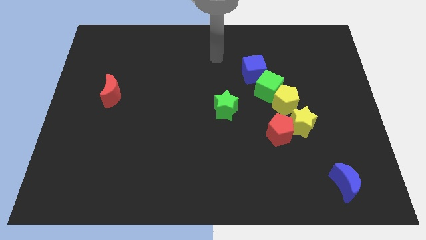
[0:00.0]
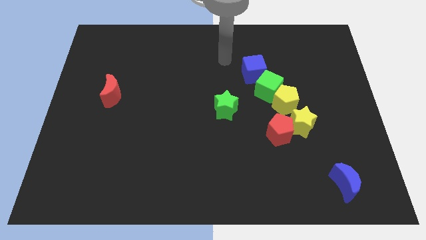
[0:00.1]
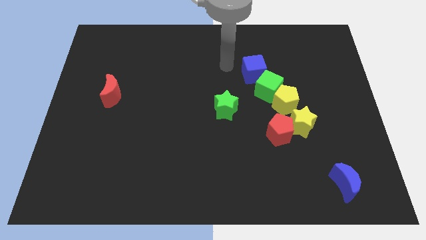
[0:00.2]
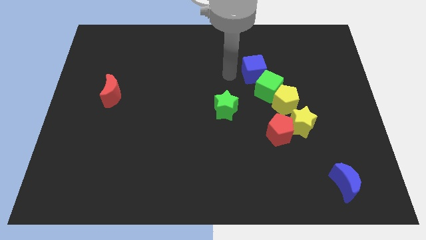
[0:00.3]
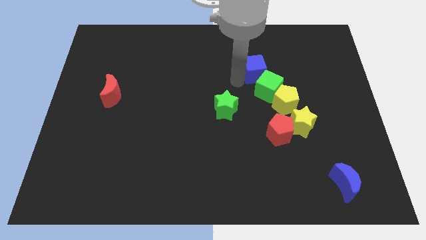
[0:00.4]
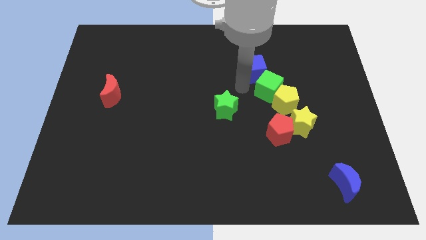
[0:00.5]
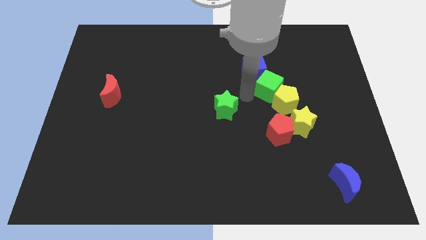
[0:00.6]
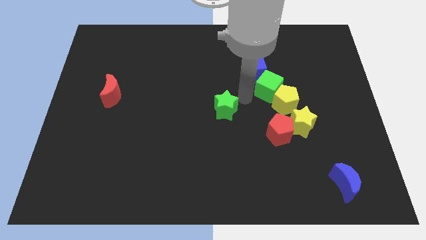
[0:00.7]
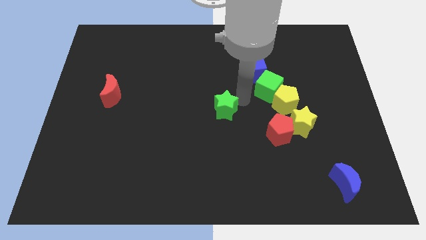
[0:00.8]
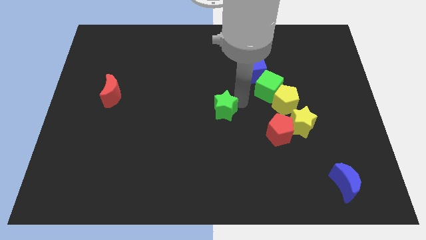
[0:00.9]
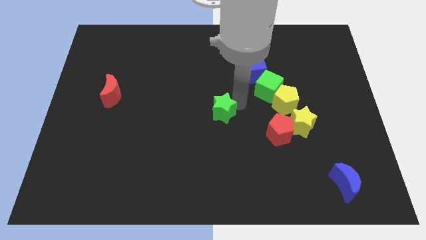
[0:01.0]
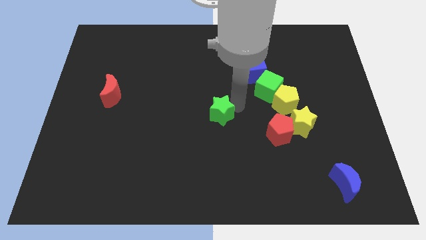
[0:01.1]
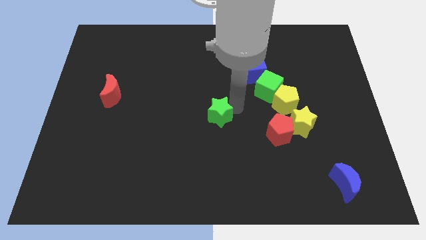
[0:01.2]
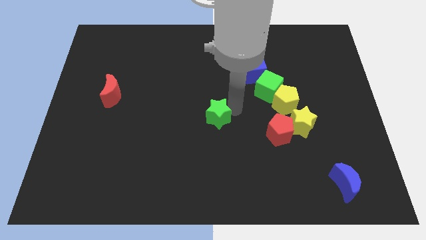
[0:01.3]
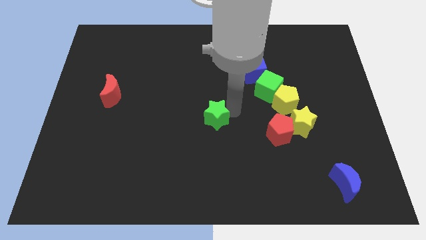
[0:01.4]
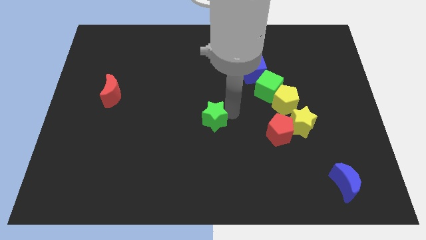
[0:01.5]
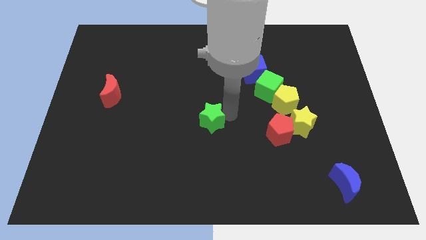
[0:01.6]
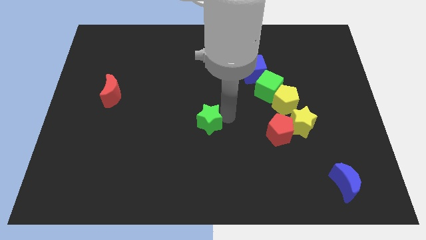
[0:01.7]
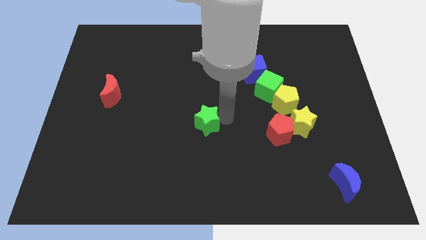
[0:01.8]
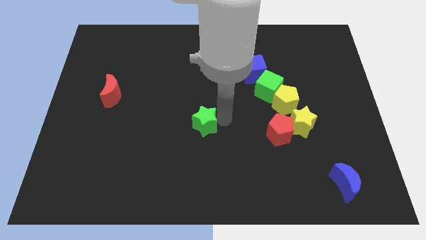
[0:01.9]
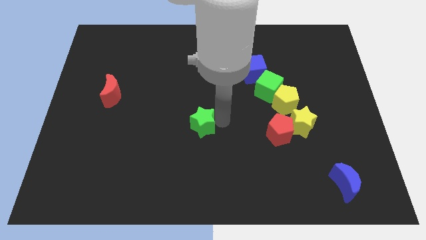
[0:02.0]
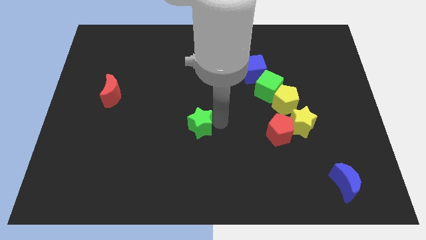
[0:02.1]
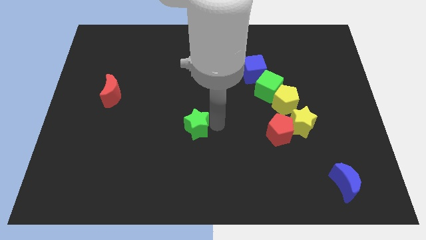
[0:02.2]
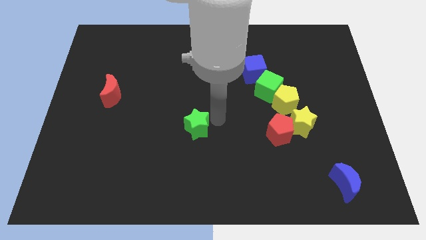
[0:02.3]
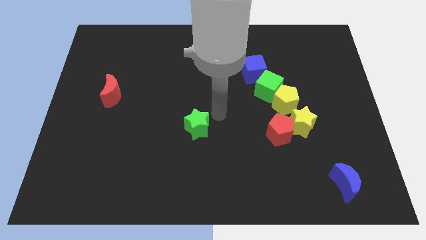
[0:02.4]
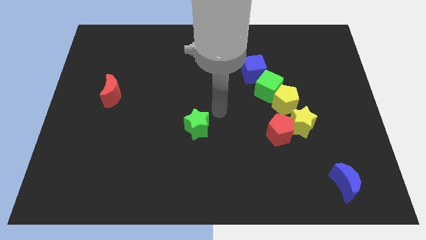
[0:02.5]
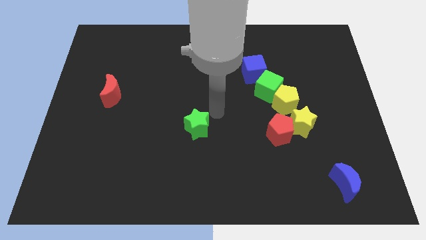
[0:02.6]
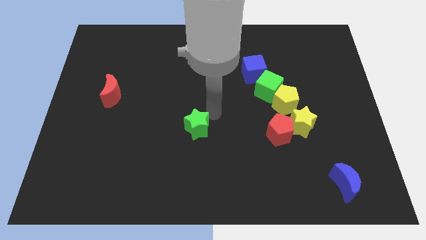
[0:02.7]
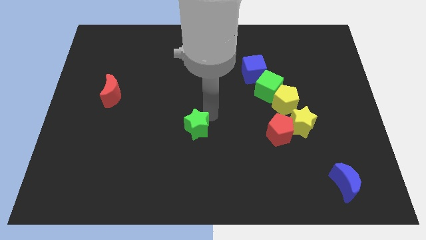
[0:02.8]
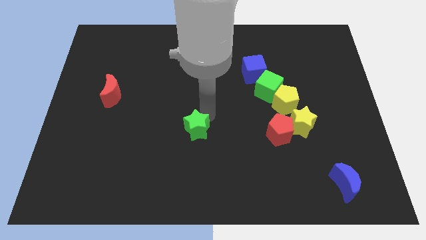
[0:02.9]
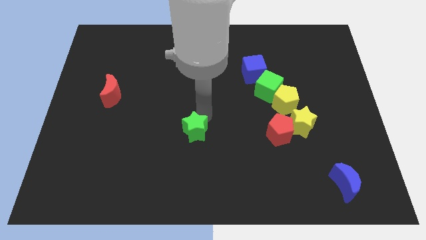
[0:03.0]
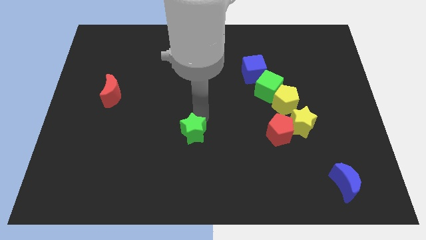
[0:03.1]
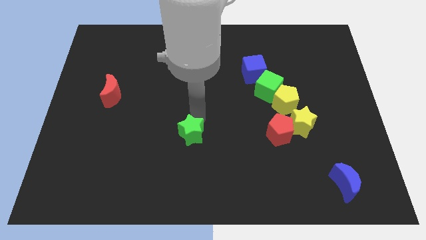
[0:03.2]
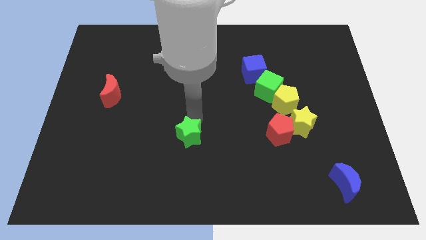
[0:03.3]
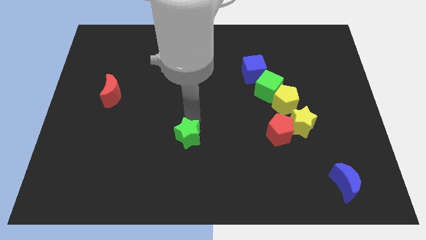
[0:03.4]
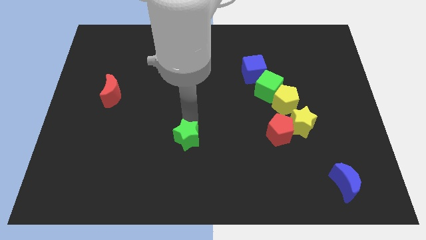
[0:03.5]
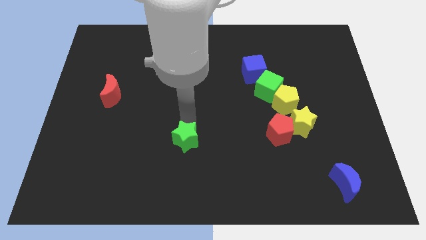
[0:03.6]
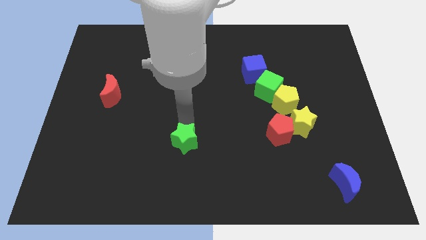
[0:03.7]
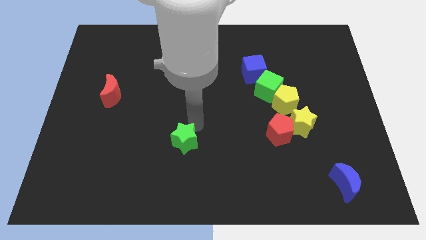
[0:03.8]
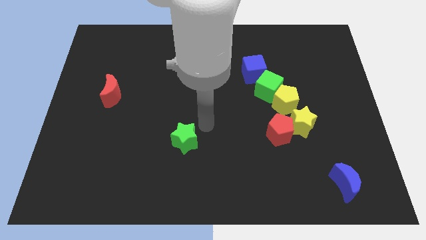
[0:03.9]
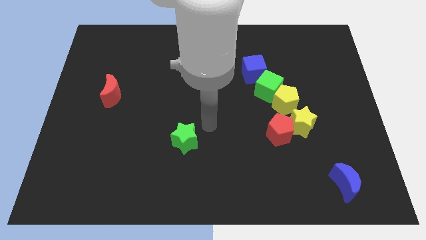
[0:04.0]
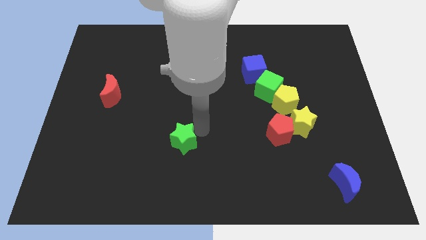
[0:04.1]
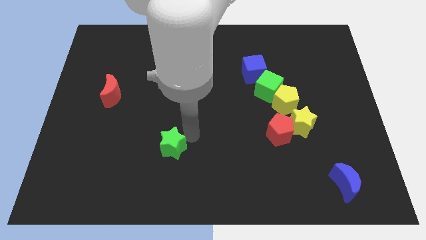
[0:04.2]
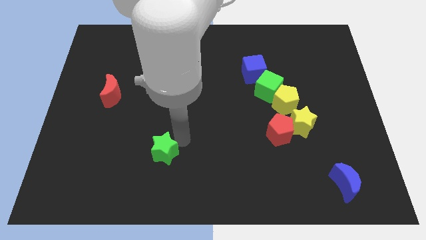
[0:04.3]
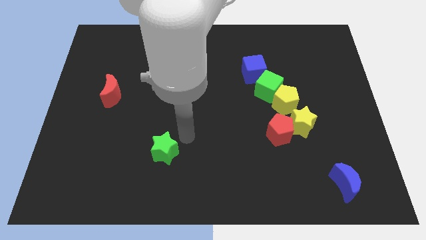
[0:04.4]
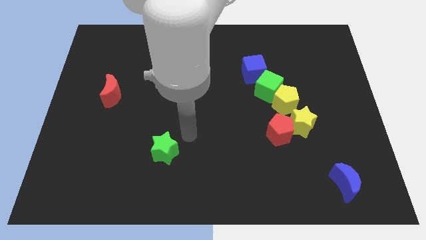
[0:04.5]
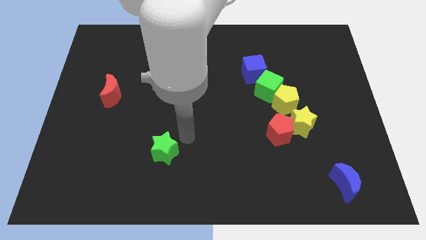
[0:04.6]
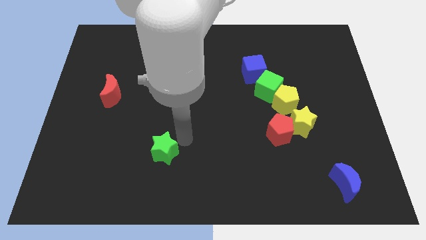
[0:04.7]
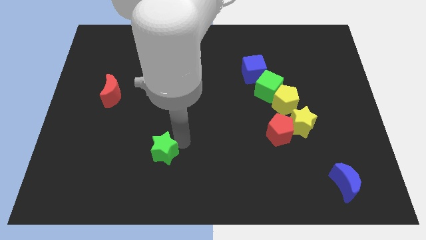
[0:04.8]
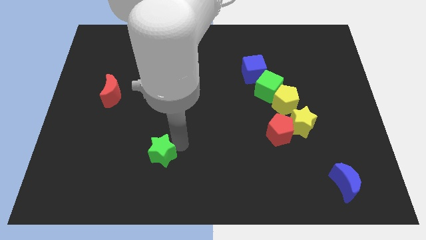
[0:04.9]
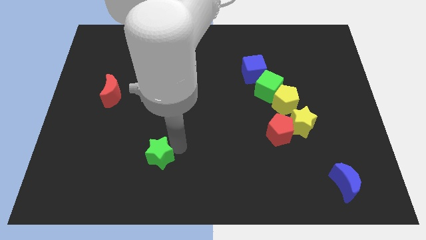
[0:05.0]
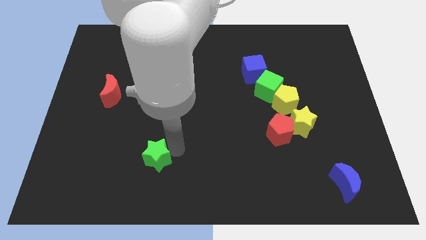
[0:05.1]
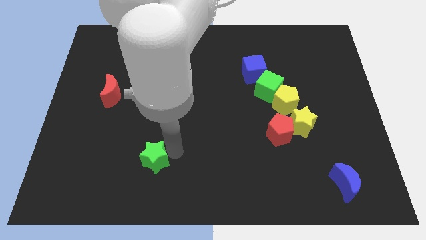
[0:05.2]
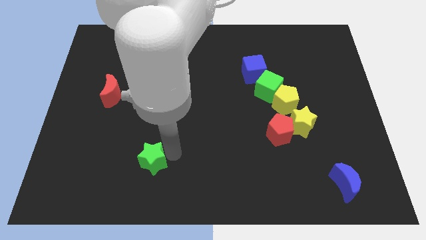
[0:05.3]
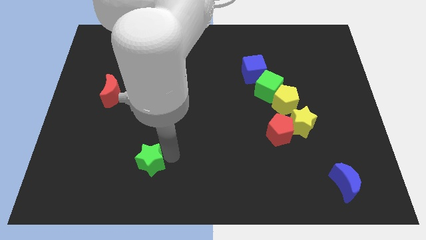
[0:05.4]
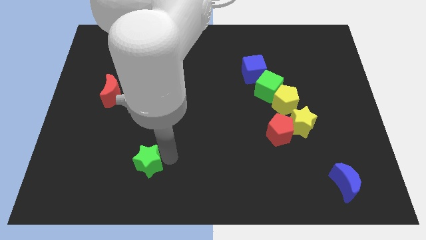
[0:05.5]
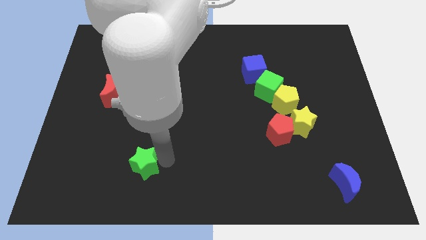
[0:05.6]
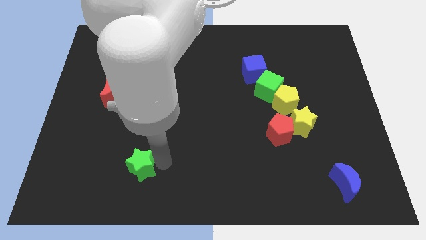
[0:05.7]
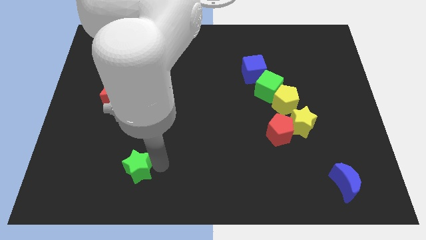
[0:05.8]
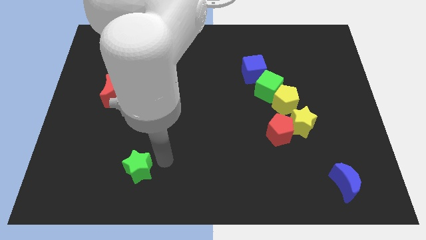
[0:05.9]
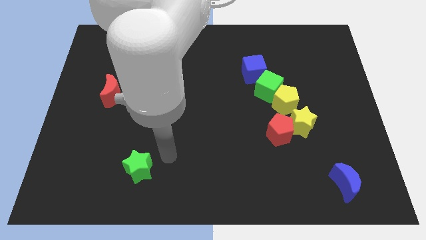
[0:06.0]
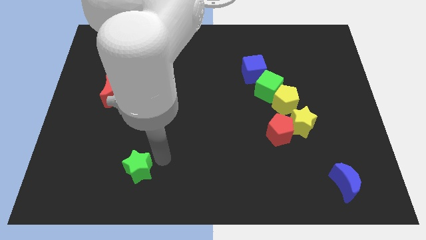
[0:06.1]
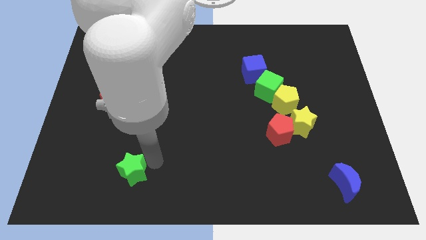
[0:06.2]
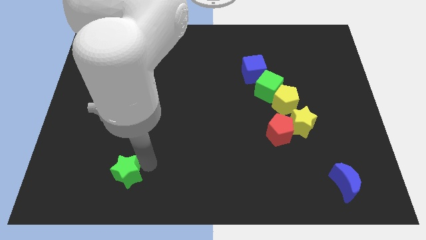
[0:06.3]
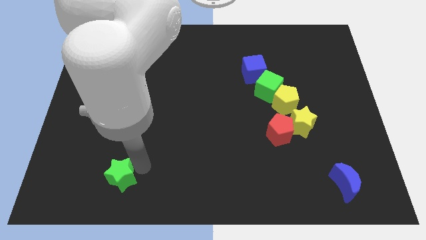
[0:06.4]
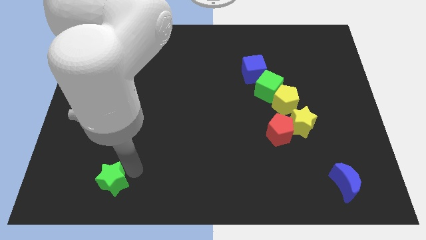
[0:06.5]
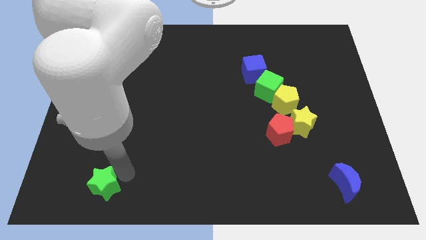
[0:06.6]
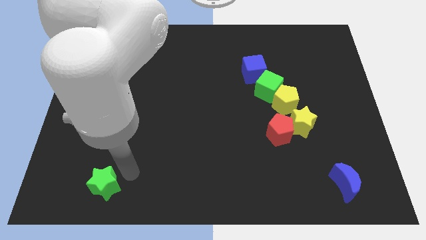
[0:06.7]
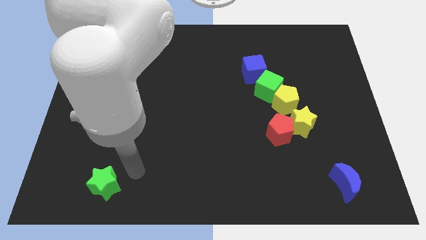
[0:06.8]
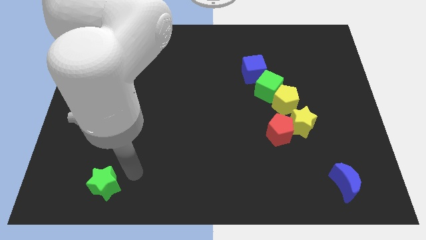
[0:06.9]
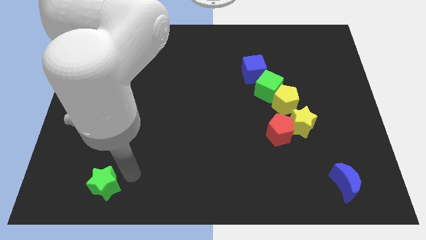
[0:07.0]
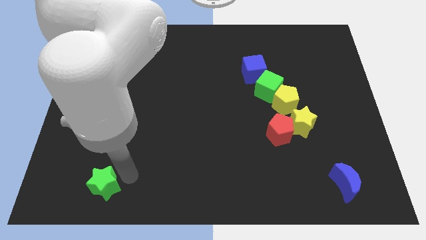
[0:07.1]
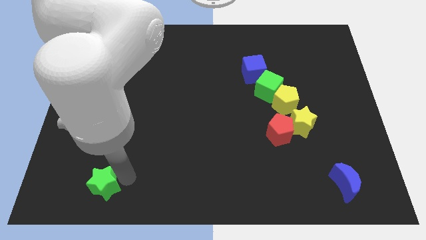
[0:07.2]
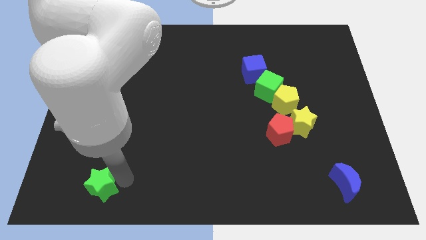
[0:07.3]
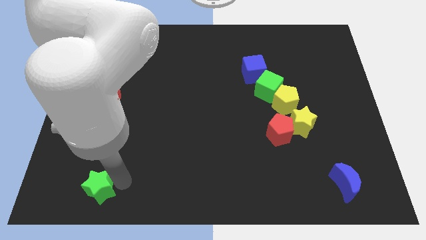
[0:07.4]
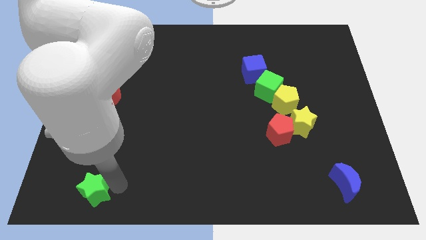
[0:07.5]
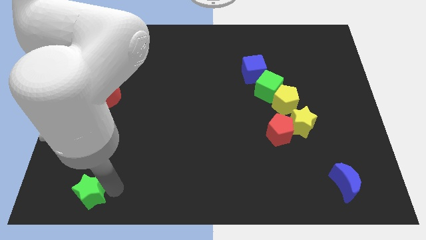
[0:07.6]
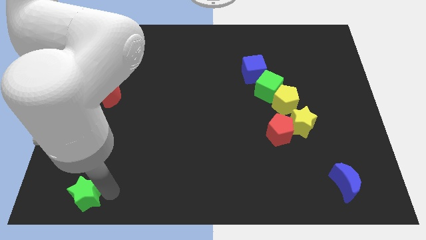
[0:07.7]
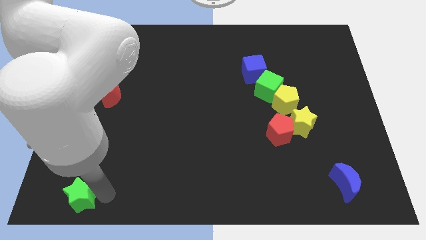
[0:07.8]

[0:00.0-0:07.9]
slide the green star to the lower left corner
